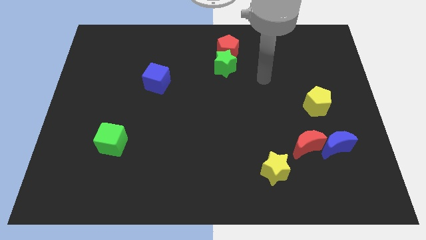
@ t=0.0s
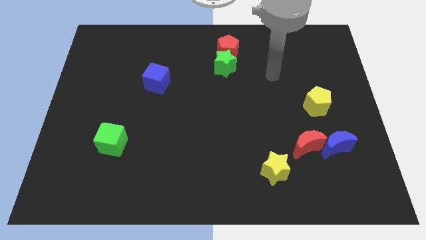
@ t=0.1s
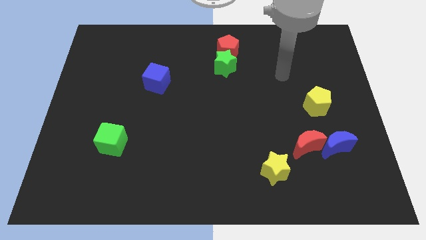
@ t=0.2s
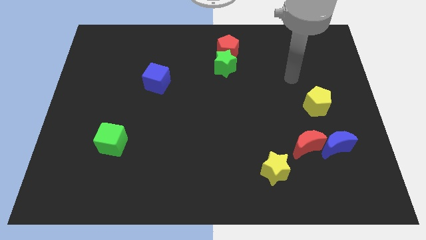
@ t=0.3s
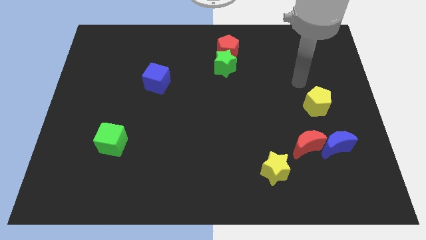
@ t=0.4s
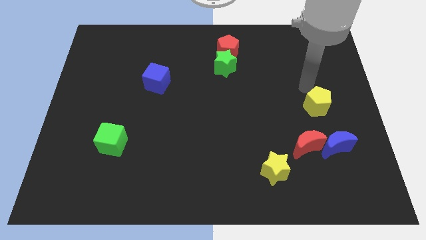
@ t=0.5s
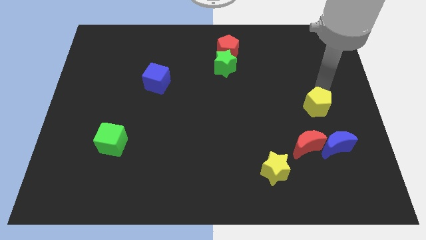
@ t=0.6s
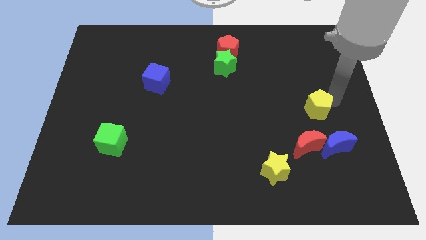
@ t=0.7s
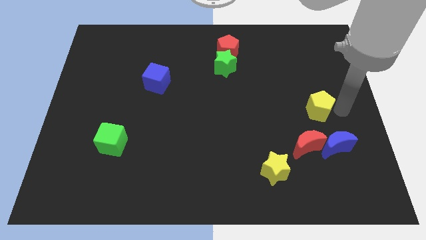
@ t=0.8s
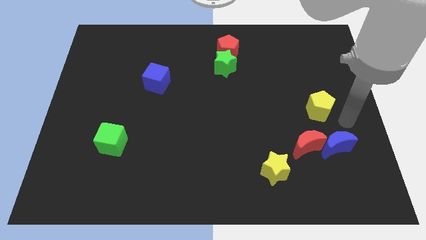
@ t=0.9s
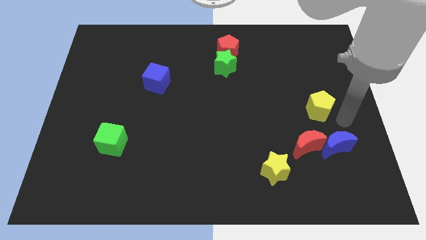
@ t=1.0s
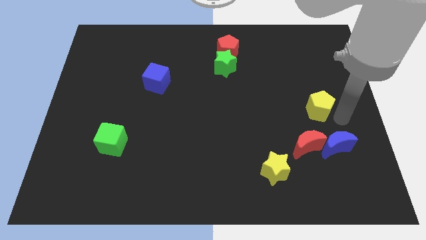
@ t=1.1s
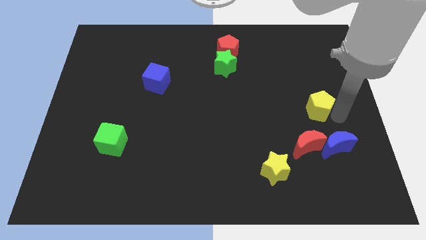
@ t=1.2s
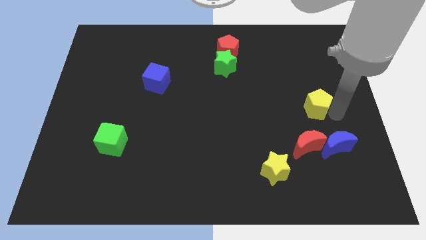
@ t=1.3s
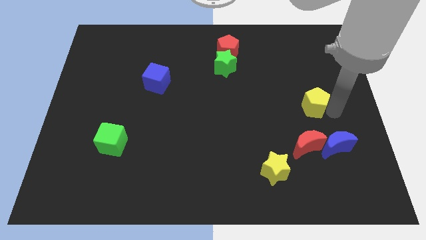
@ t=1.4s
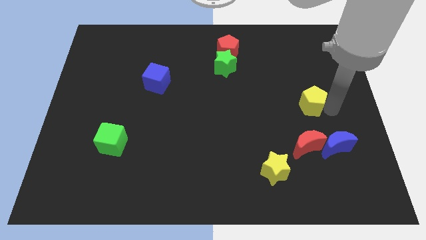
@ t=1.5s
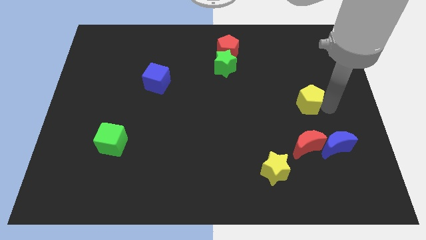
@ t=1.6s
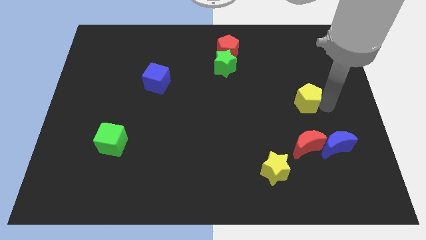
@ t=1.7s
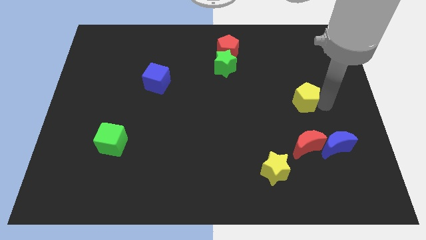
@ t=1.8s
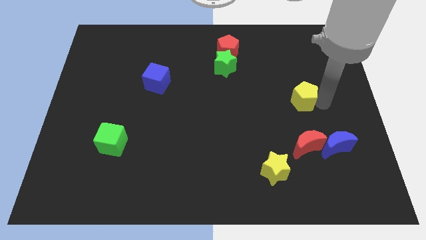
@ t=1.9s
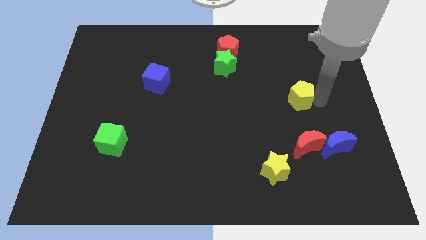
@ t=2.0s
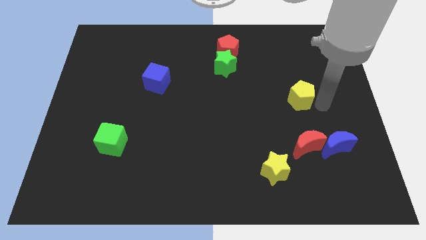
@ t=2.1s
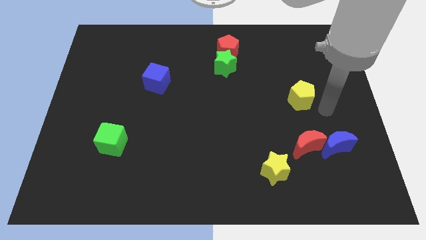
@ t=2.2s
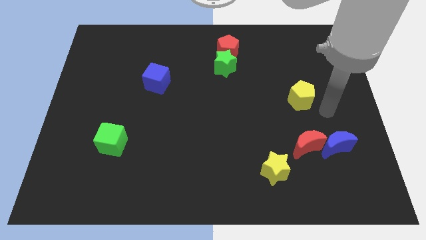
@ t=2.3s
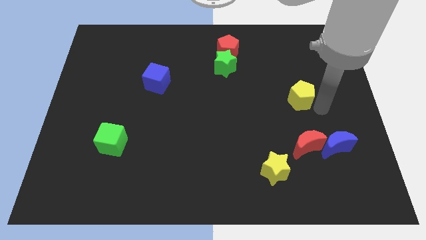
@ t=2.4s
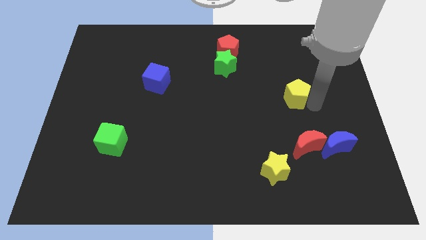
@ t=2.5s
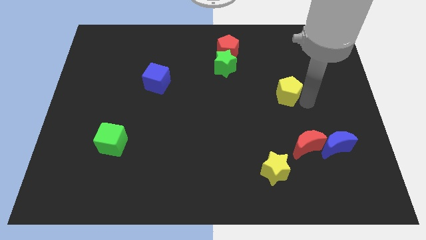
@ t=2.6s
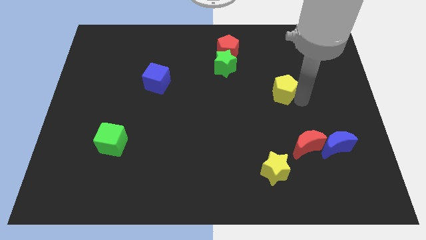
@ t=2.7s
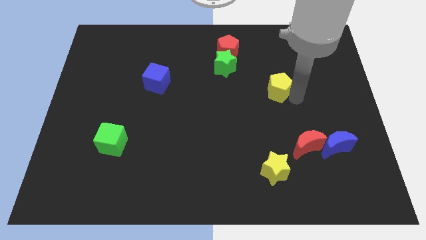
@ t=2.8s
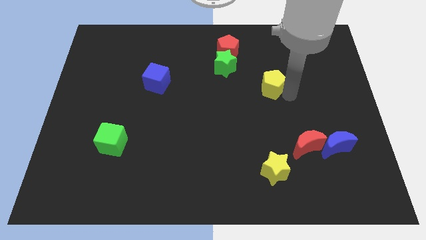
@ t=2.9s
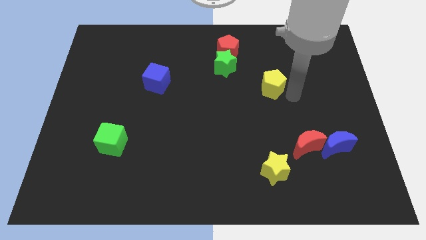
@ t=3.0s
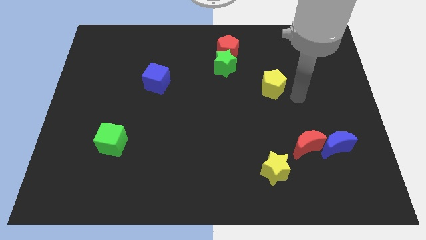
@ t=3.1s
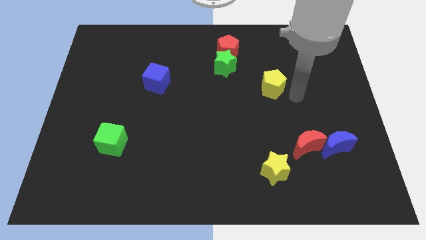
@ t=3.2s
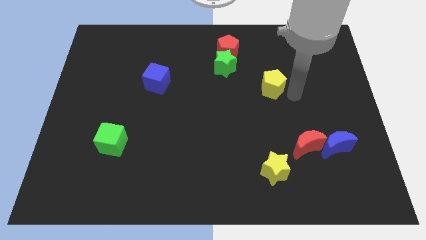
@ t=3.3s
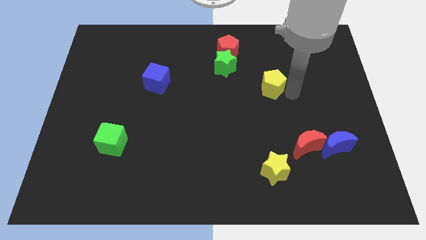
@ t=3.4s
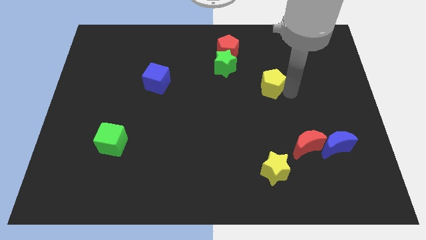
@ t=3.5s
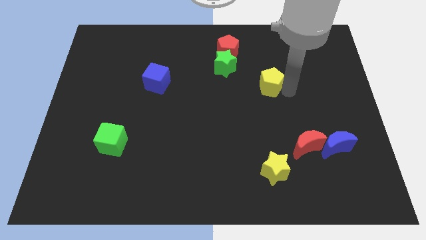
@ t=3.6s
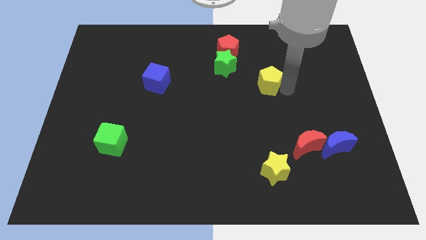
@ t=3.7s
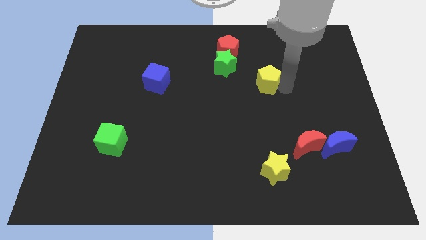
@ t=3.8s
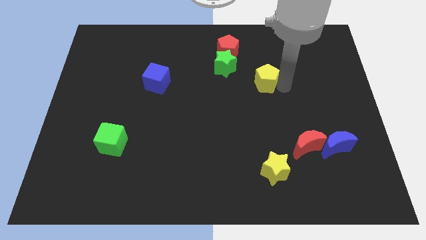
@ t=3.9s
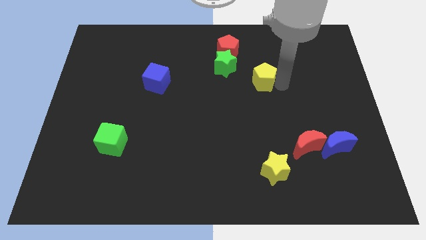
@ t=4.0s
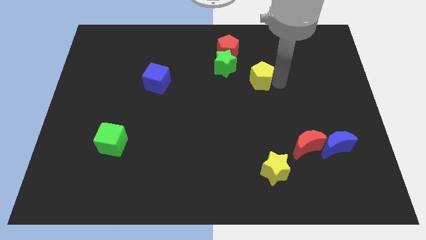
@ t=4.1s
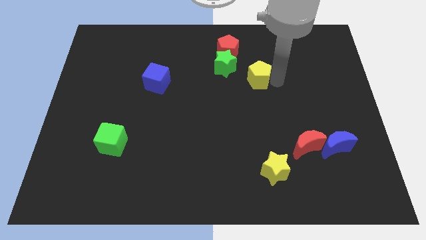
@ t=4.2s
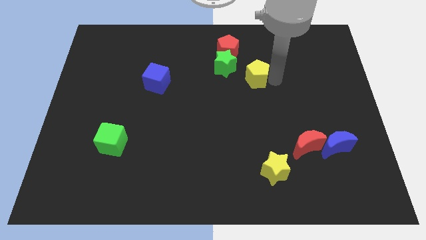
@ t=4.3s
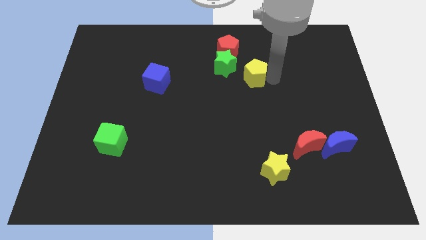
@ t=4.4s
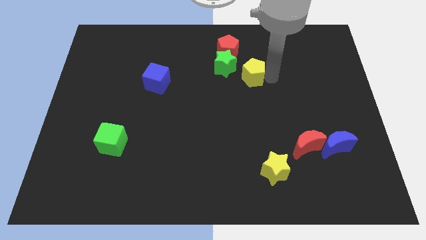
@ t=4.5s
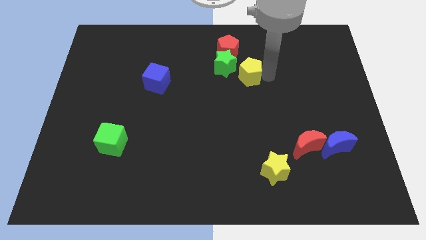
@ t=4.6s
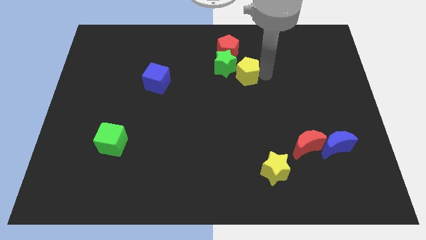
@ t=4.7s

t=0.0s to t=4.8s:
move the yellow pentagon to the green star

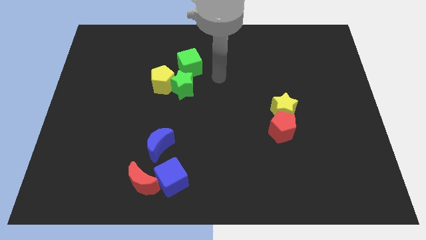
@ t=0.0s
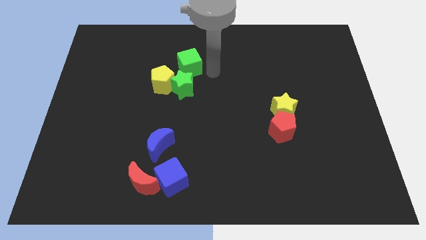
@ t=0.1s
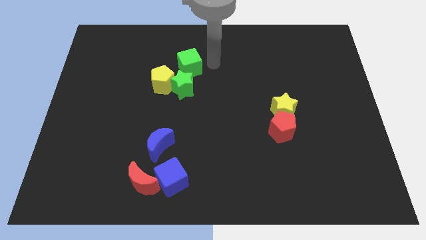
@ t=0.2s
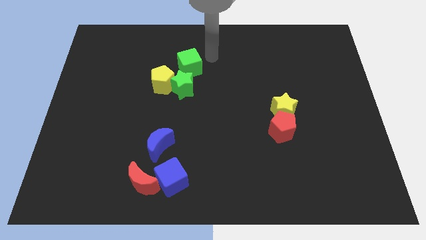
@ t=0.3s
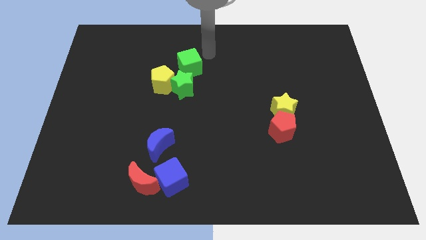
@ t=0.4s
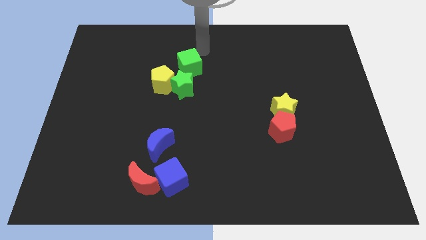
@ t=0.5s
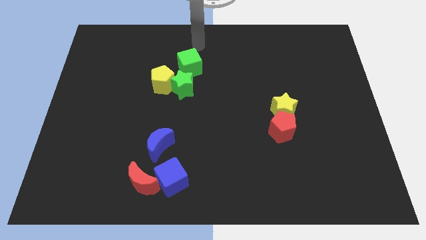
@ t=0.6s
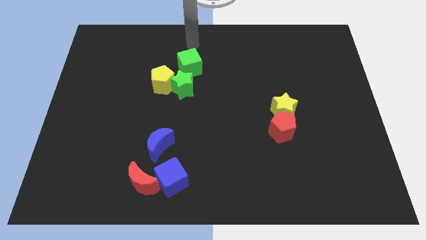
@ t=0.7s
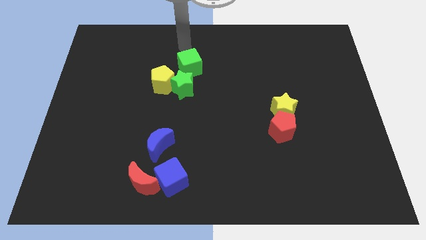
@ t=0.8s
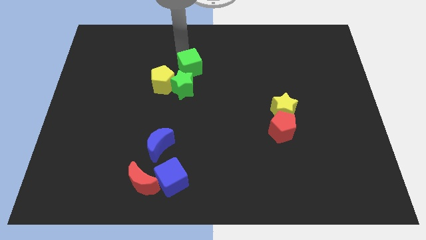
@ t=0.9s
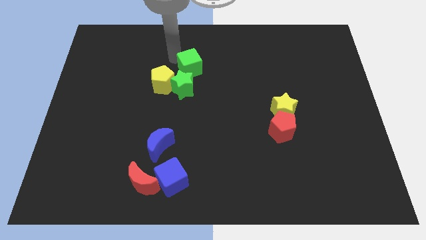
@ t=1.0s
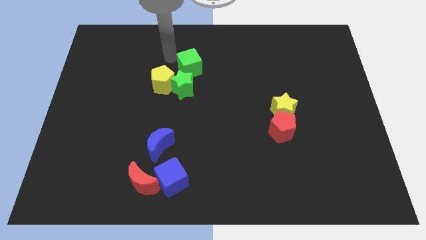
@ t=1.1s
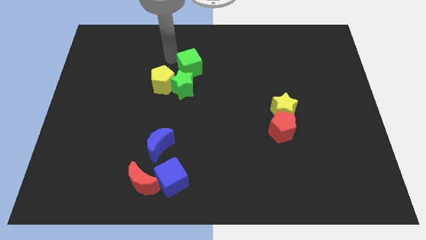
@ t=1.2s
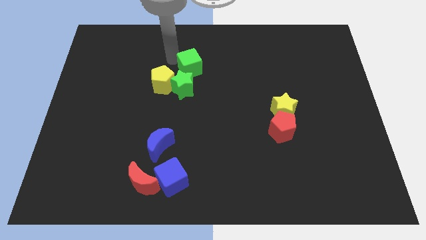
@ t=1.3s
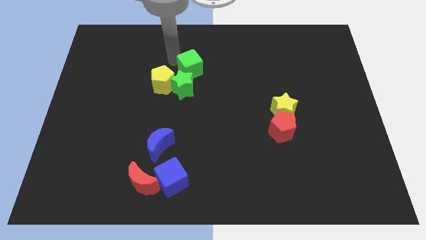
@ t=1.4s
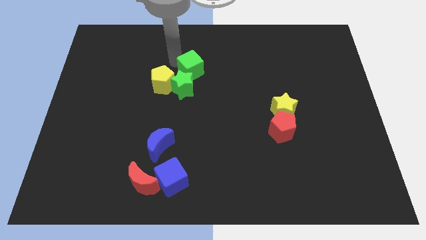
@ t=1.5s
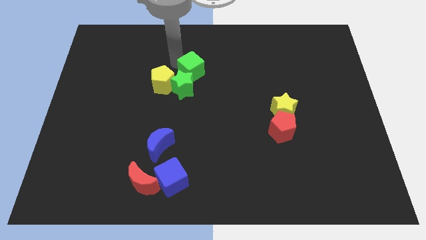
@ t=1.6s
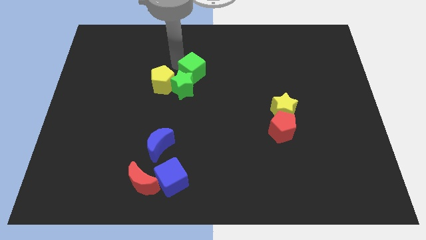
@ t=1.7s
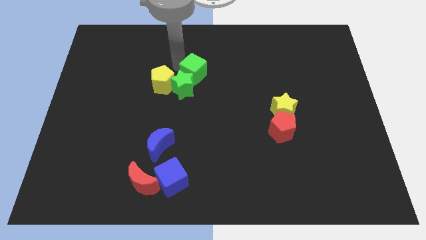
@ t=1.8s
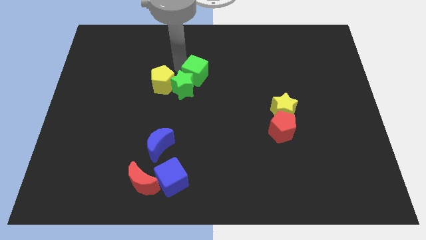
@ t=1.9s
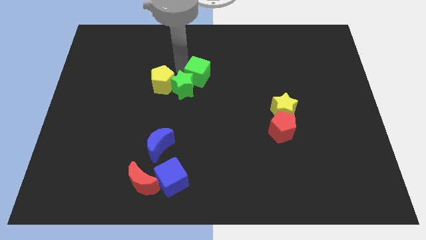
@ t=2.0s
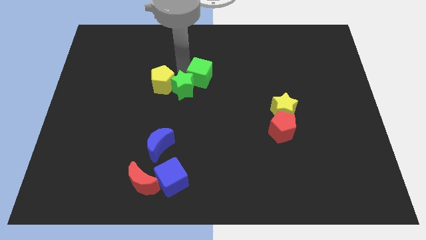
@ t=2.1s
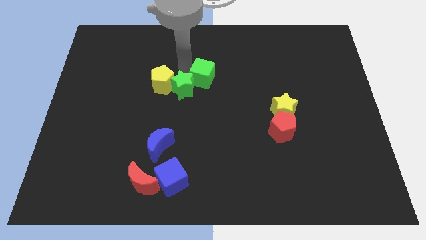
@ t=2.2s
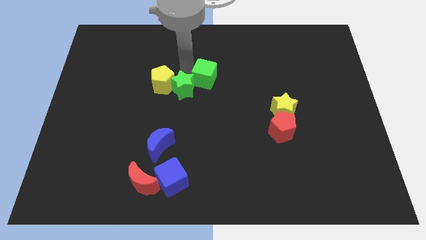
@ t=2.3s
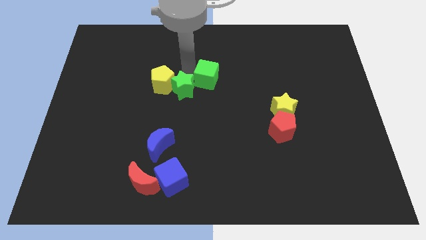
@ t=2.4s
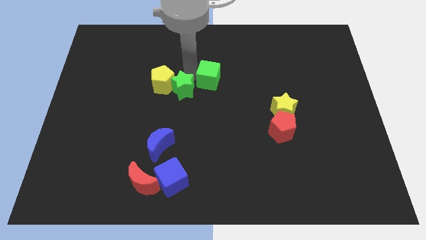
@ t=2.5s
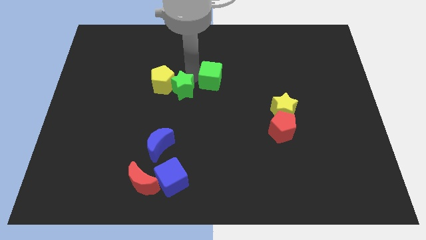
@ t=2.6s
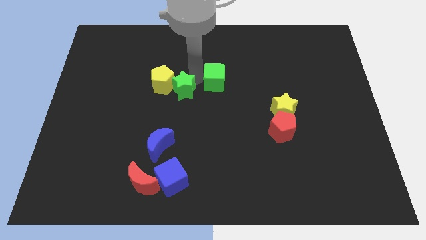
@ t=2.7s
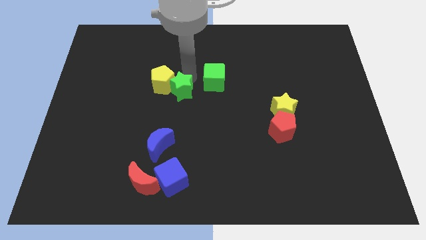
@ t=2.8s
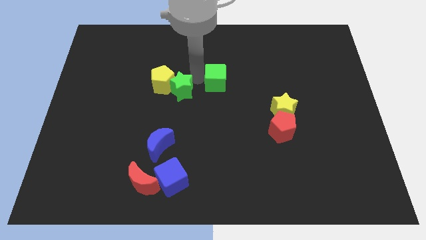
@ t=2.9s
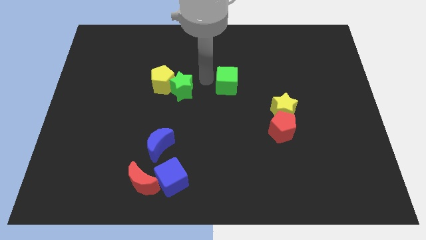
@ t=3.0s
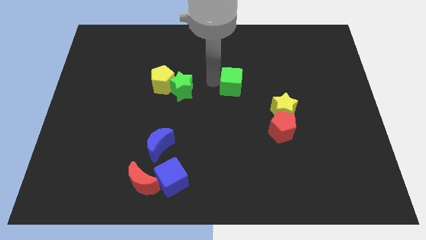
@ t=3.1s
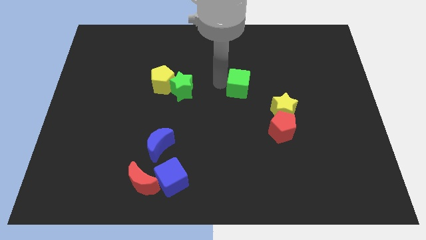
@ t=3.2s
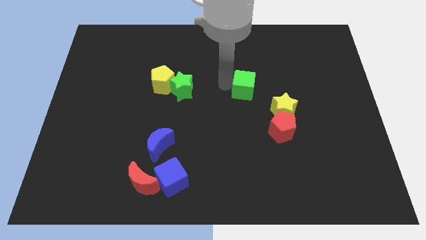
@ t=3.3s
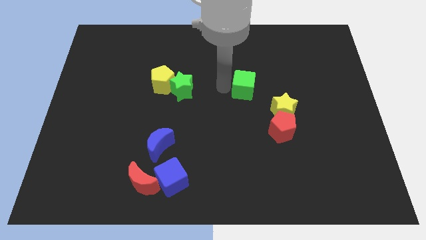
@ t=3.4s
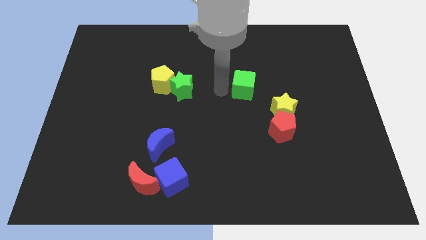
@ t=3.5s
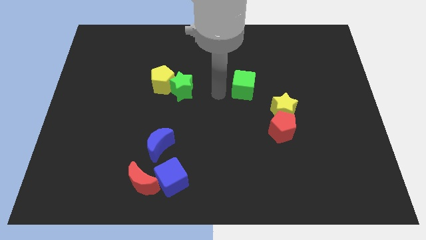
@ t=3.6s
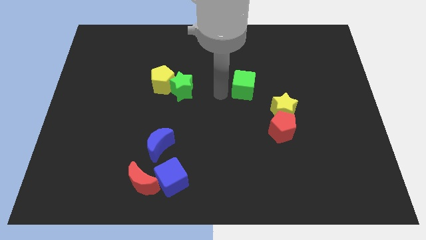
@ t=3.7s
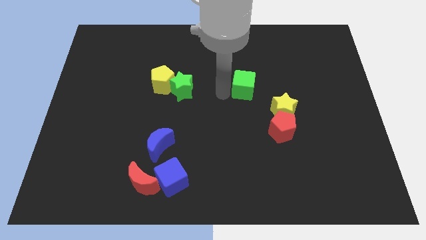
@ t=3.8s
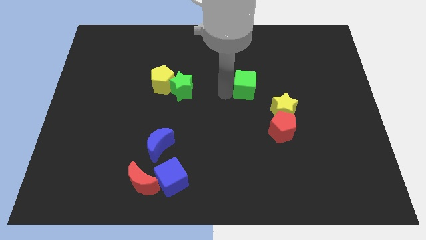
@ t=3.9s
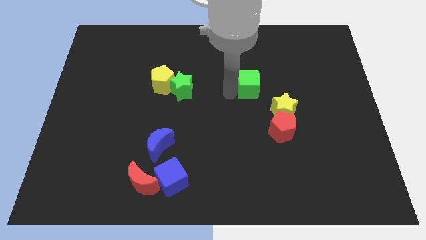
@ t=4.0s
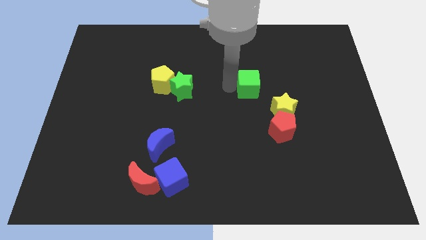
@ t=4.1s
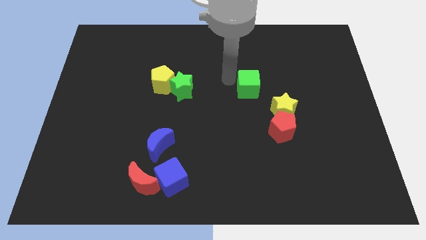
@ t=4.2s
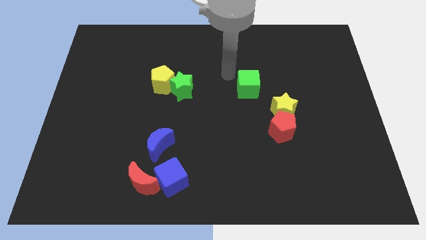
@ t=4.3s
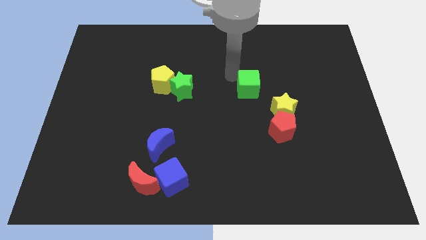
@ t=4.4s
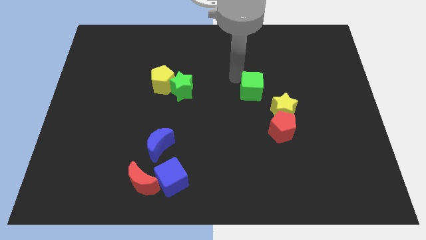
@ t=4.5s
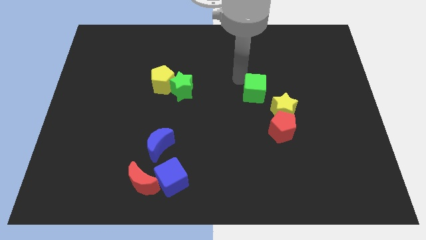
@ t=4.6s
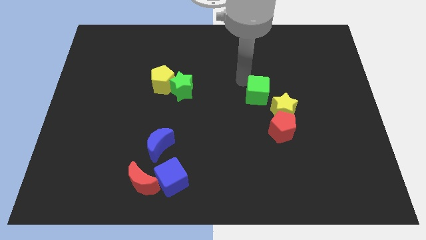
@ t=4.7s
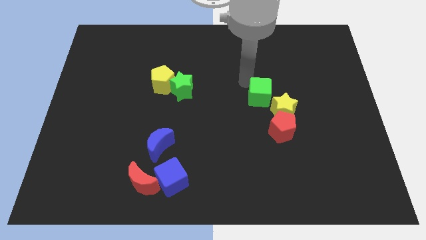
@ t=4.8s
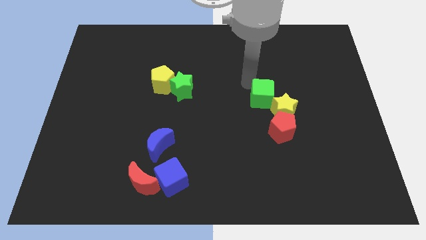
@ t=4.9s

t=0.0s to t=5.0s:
move the green cube close to the yellow star
